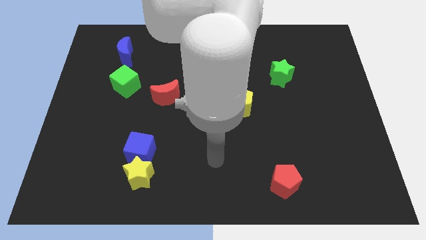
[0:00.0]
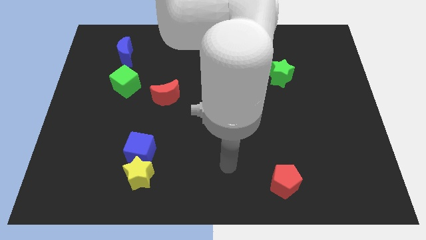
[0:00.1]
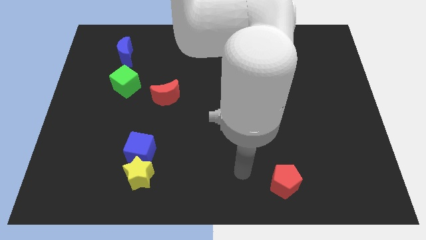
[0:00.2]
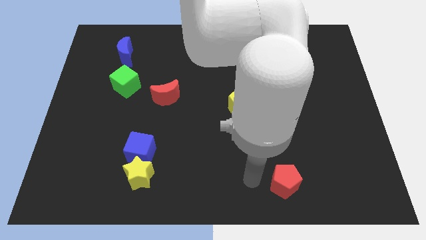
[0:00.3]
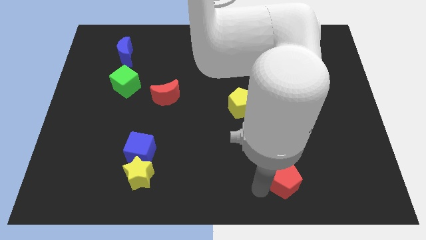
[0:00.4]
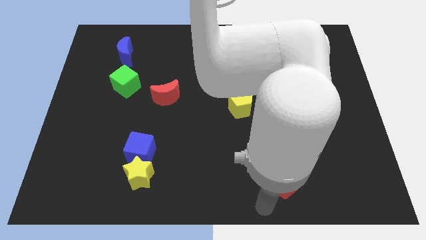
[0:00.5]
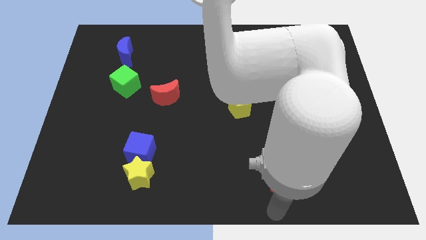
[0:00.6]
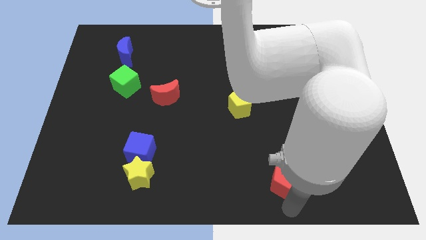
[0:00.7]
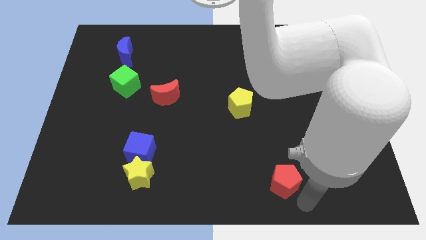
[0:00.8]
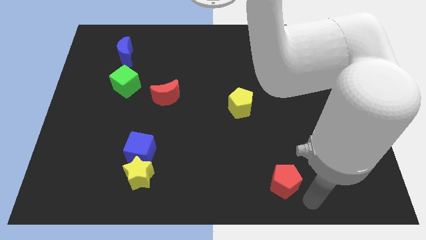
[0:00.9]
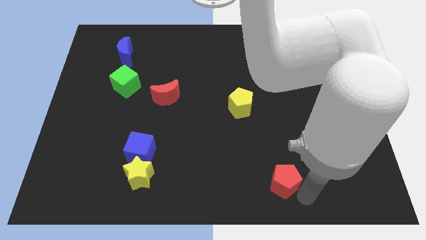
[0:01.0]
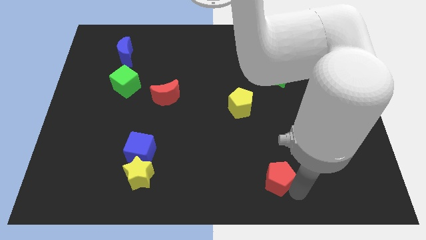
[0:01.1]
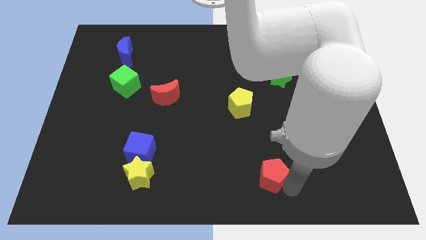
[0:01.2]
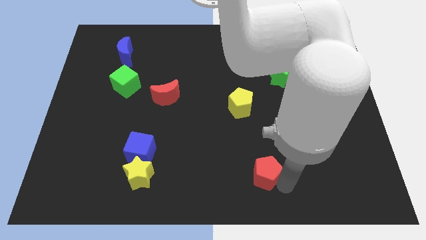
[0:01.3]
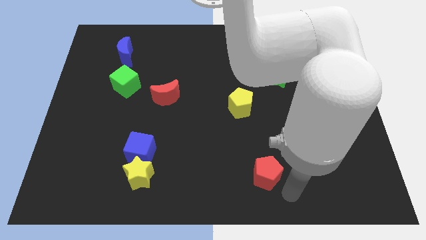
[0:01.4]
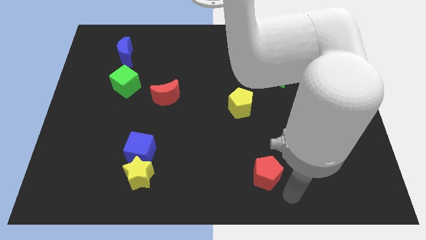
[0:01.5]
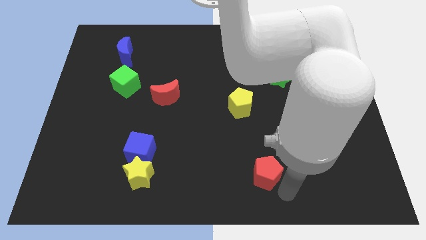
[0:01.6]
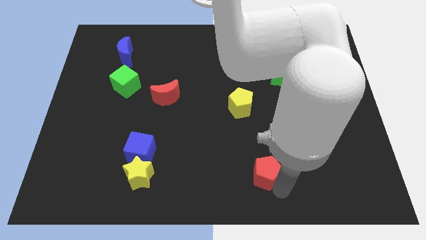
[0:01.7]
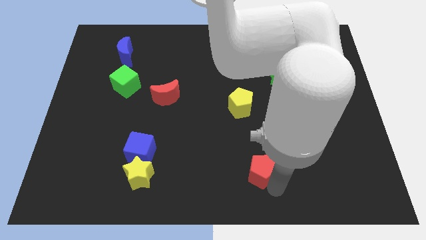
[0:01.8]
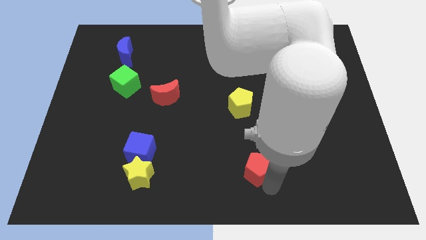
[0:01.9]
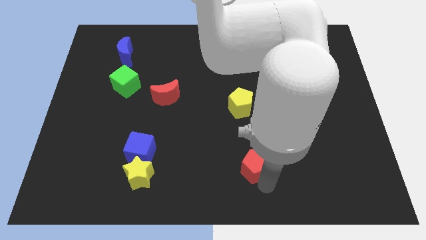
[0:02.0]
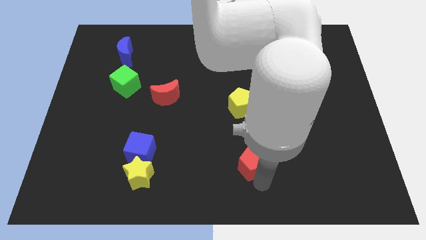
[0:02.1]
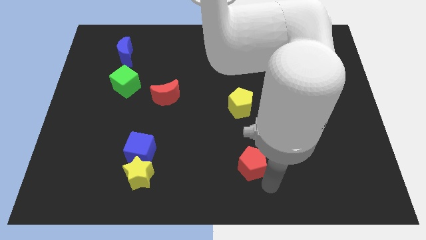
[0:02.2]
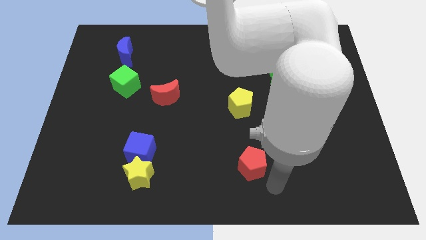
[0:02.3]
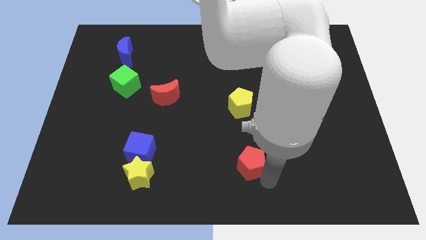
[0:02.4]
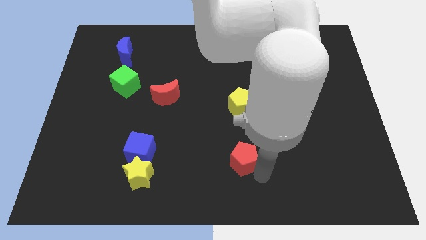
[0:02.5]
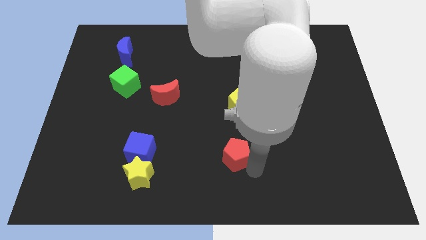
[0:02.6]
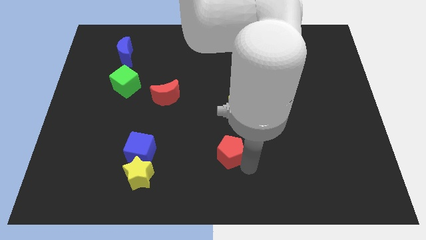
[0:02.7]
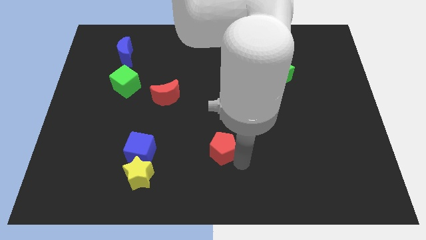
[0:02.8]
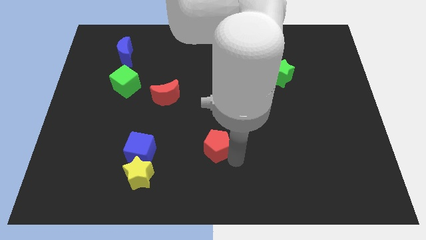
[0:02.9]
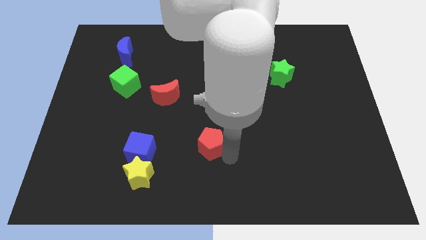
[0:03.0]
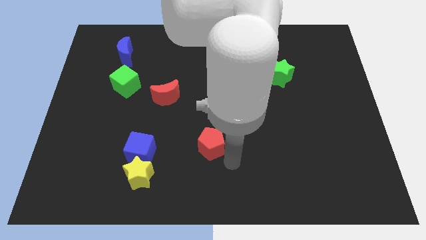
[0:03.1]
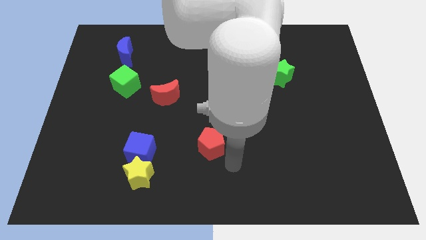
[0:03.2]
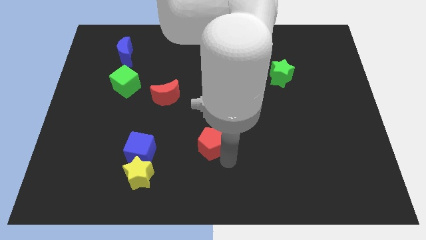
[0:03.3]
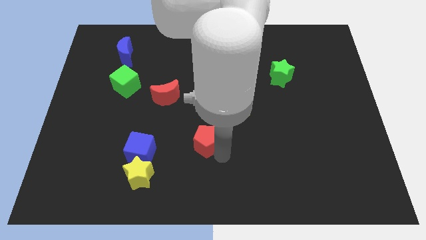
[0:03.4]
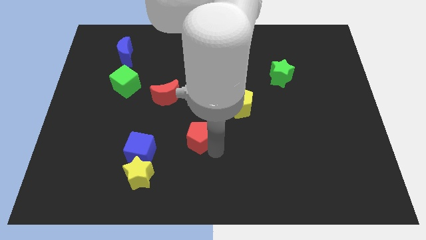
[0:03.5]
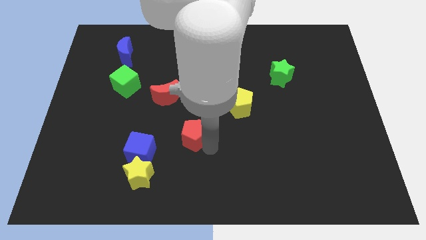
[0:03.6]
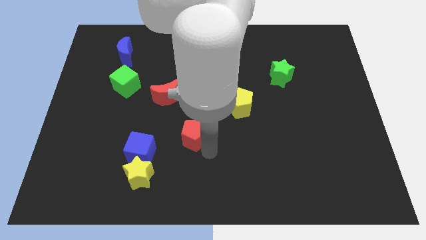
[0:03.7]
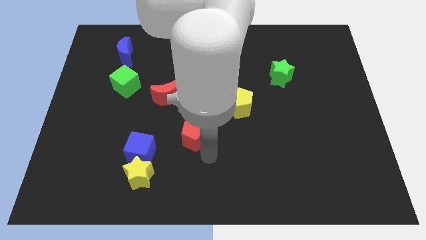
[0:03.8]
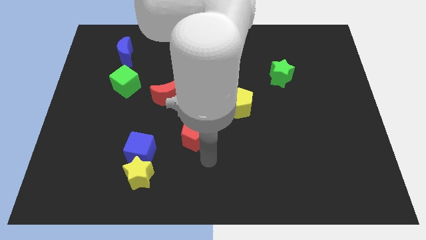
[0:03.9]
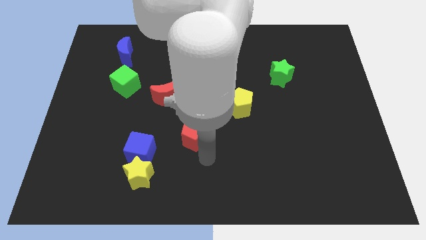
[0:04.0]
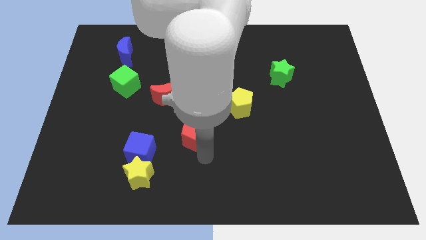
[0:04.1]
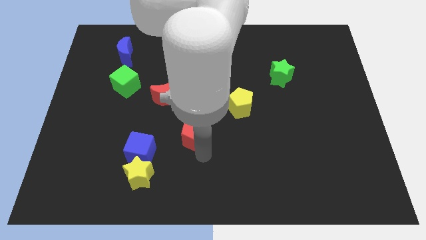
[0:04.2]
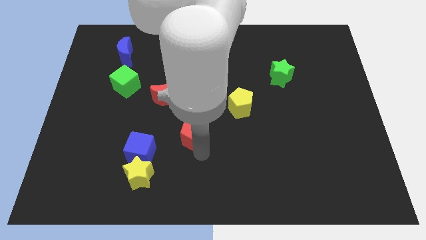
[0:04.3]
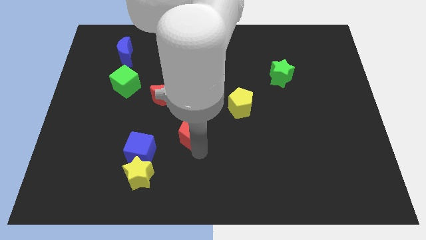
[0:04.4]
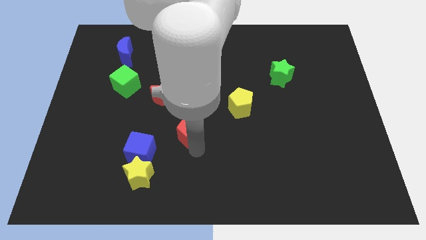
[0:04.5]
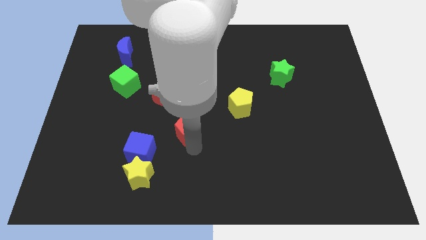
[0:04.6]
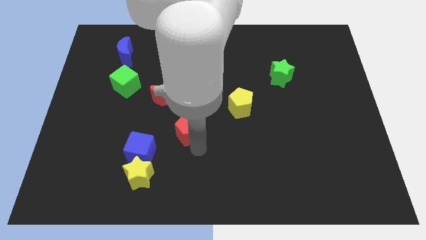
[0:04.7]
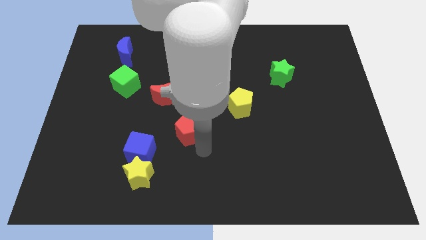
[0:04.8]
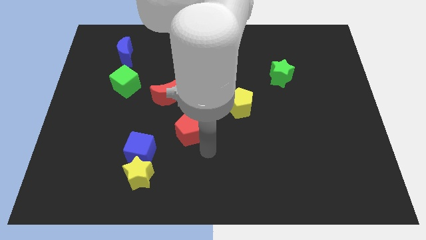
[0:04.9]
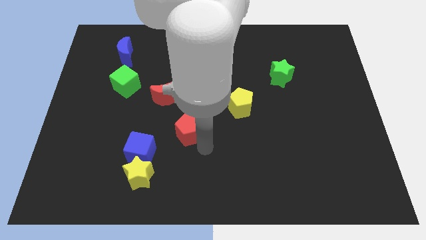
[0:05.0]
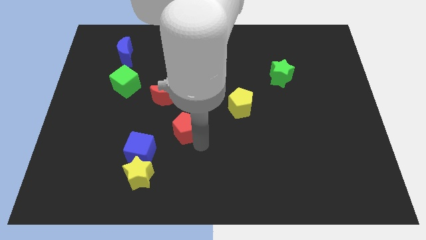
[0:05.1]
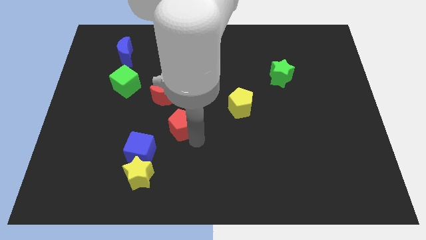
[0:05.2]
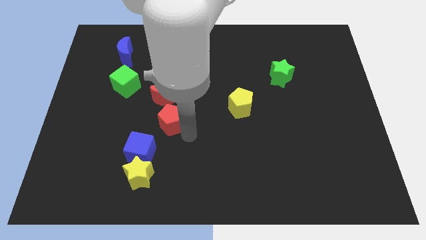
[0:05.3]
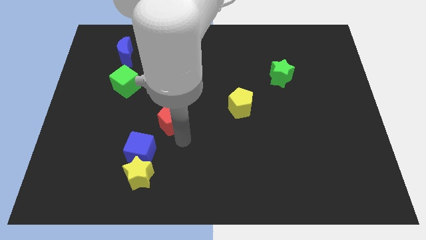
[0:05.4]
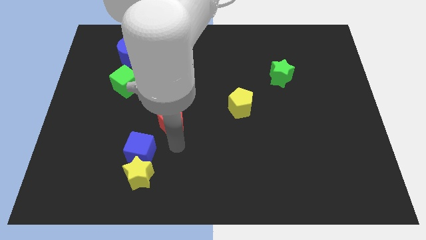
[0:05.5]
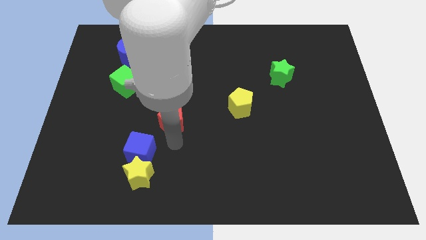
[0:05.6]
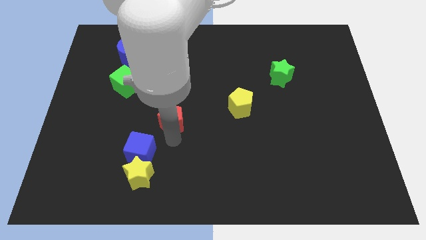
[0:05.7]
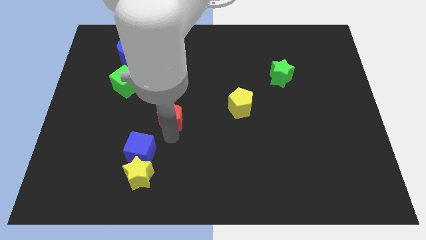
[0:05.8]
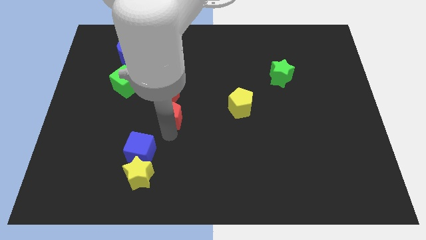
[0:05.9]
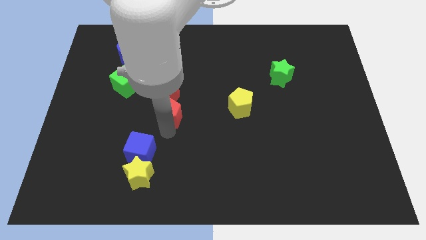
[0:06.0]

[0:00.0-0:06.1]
push the red pentagon towards the red moon

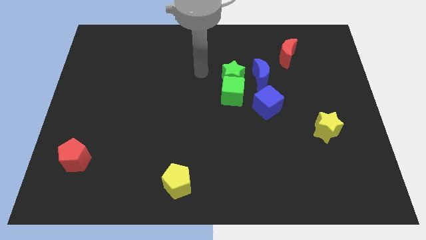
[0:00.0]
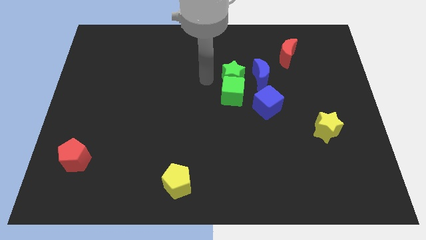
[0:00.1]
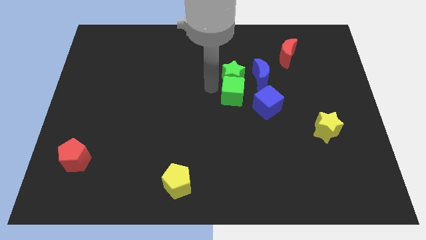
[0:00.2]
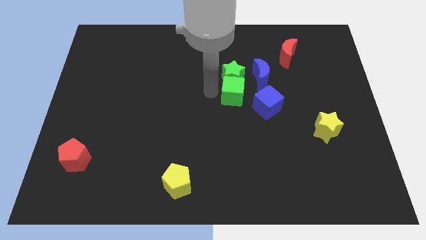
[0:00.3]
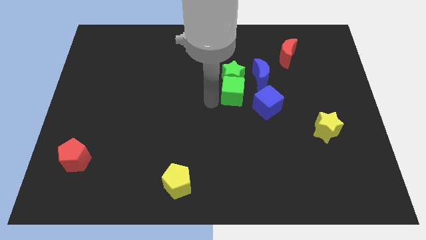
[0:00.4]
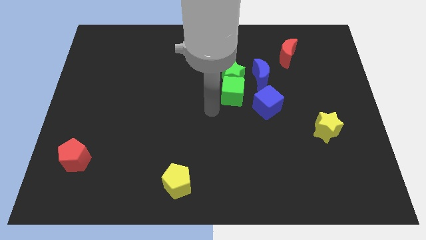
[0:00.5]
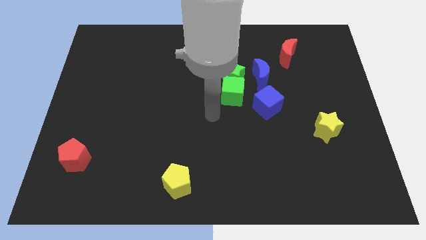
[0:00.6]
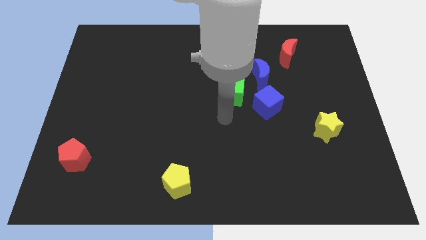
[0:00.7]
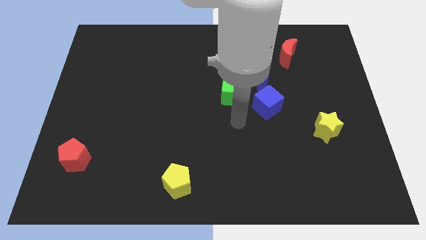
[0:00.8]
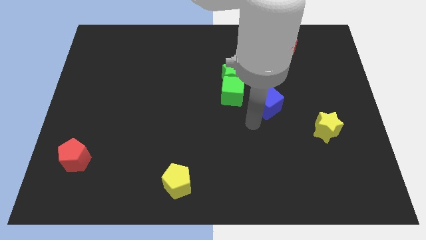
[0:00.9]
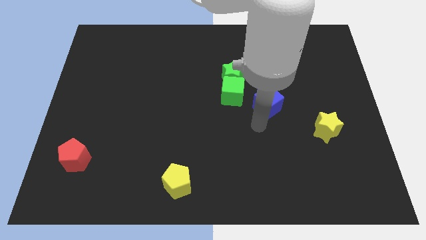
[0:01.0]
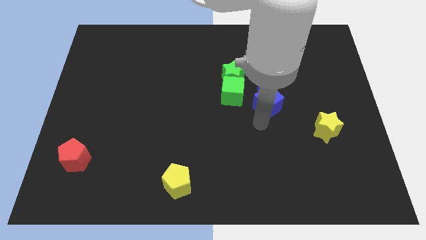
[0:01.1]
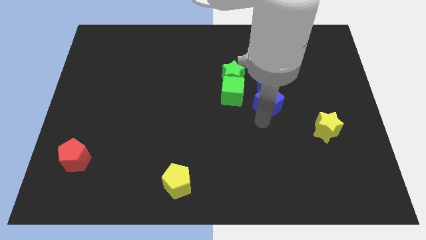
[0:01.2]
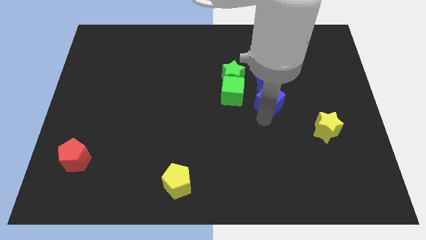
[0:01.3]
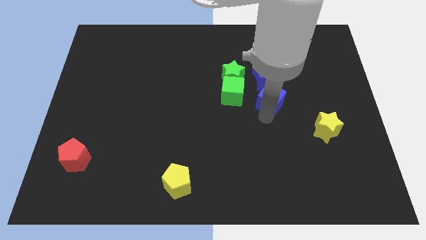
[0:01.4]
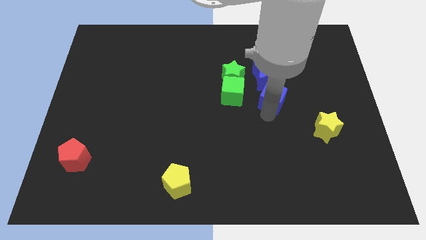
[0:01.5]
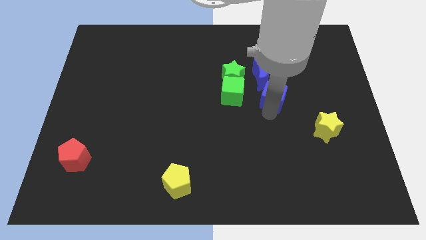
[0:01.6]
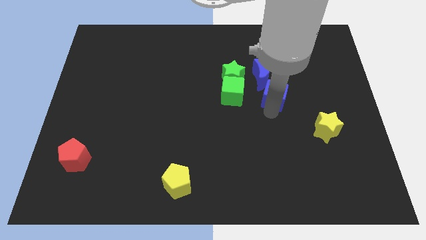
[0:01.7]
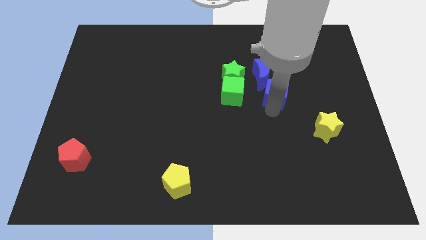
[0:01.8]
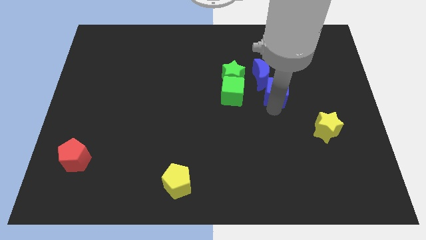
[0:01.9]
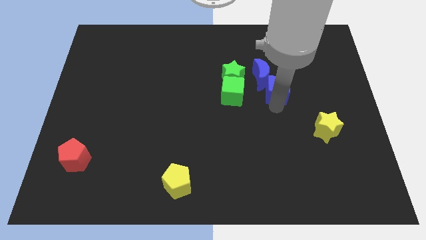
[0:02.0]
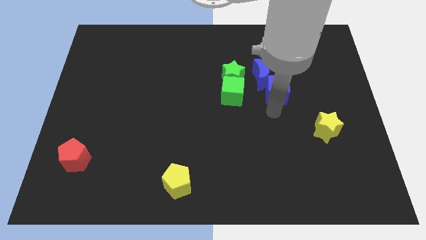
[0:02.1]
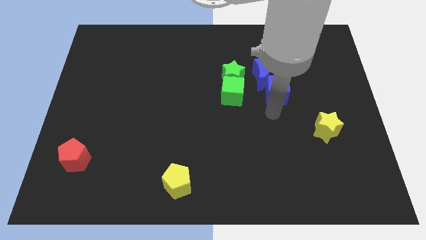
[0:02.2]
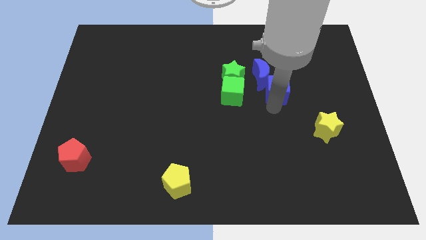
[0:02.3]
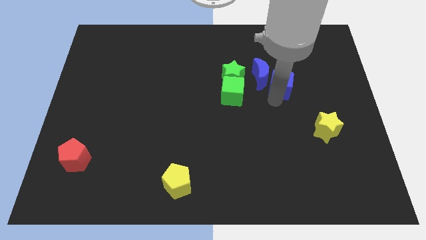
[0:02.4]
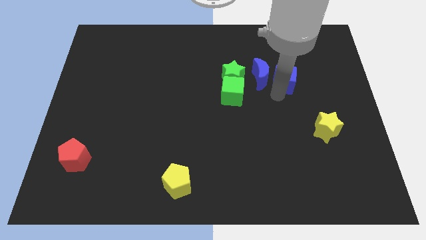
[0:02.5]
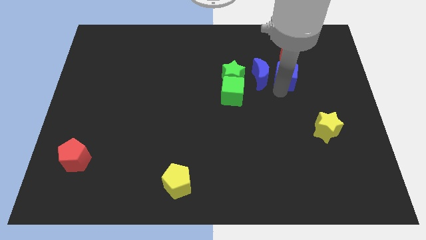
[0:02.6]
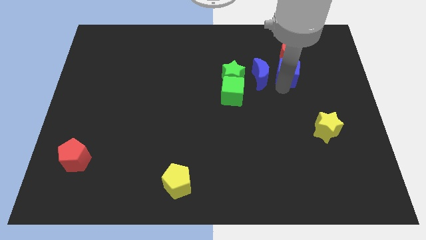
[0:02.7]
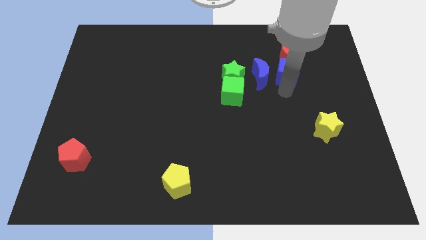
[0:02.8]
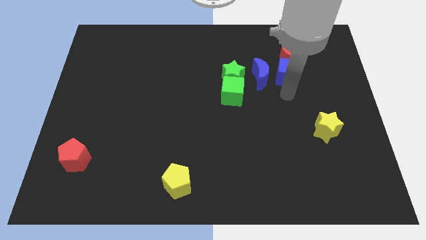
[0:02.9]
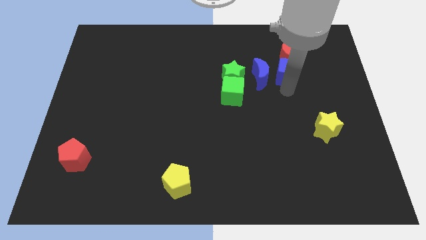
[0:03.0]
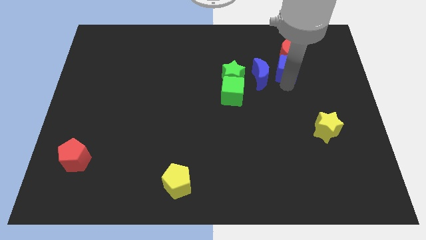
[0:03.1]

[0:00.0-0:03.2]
move the blue cube towards the red moon
